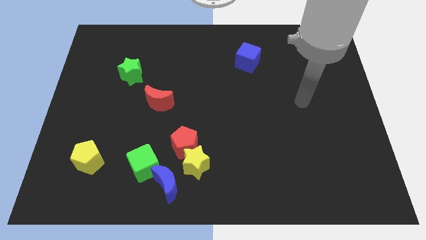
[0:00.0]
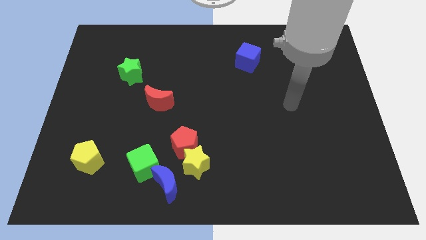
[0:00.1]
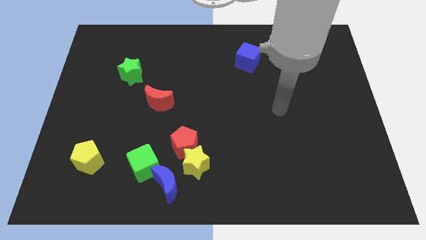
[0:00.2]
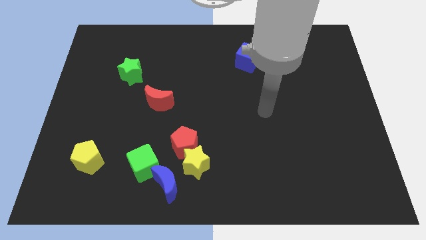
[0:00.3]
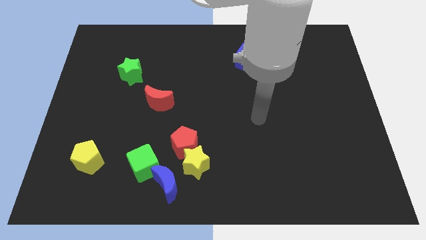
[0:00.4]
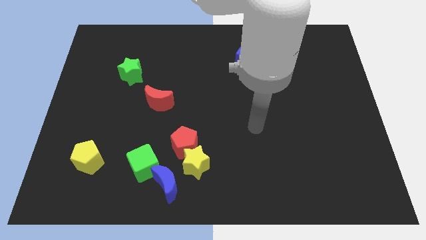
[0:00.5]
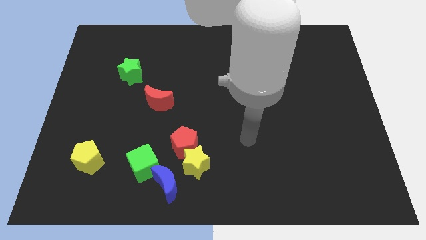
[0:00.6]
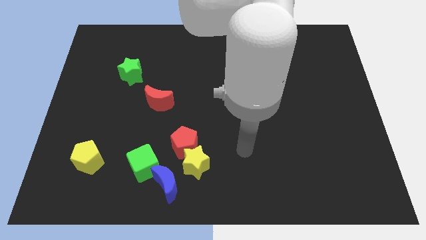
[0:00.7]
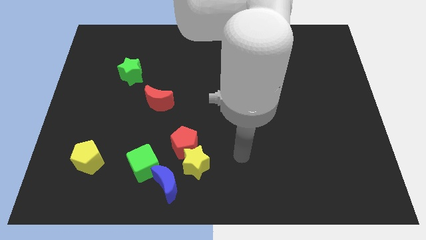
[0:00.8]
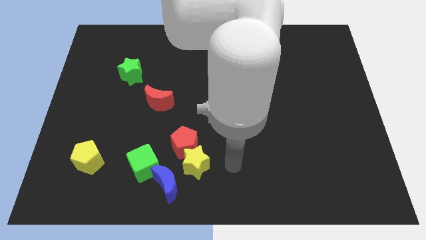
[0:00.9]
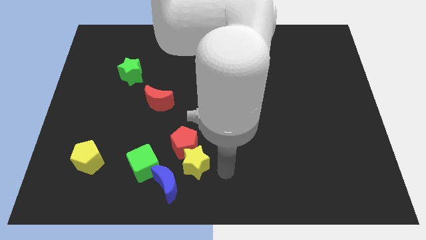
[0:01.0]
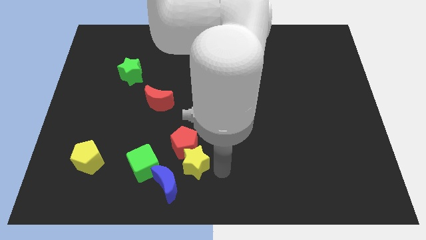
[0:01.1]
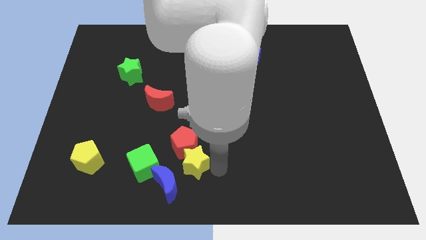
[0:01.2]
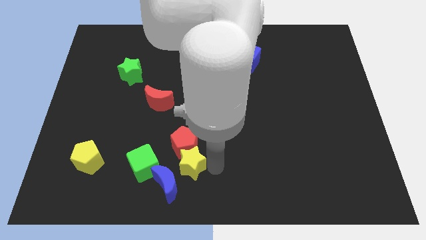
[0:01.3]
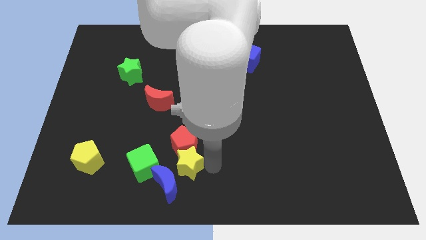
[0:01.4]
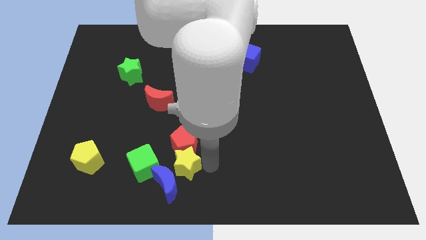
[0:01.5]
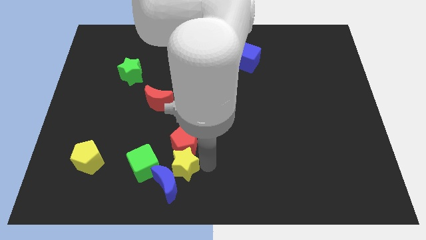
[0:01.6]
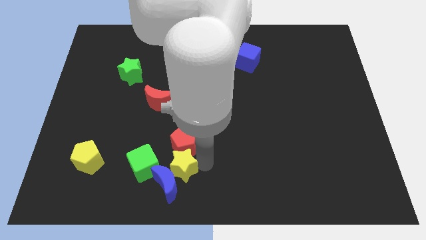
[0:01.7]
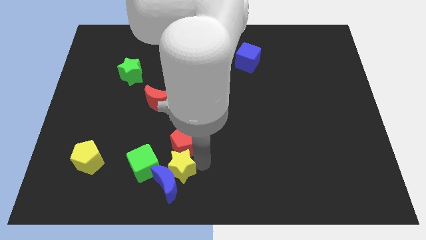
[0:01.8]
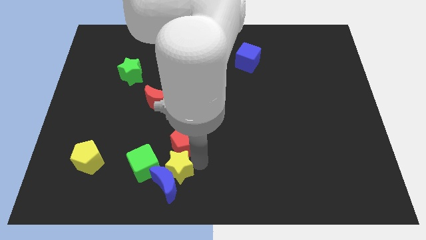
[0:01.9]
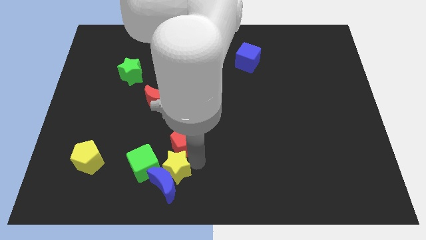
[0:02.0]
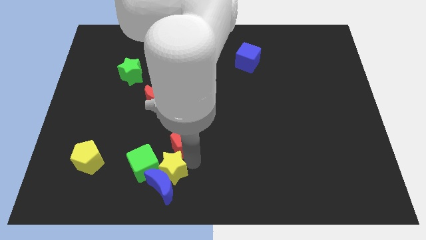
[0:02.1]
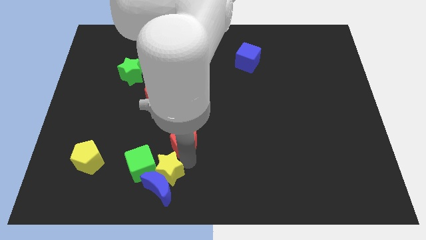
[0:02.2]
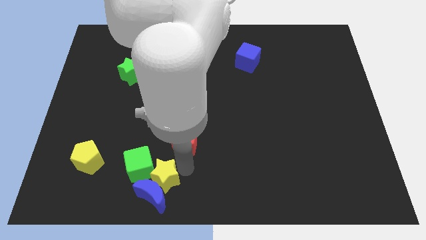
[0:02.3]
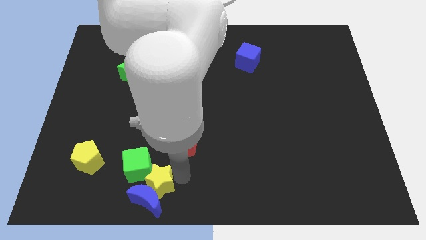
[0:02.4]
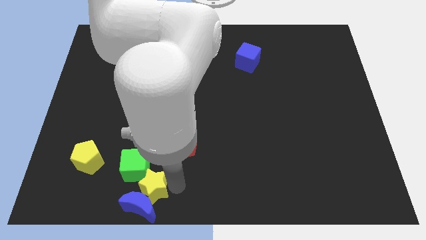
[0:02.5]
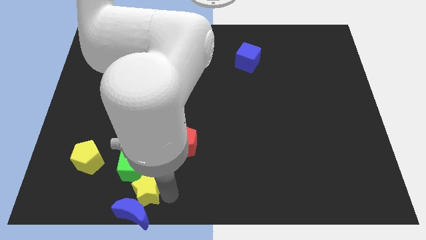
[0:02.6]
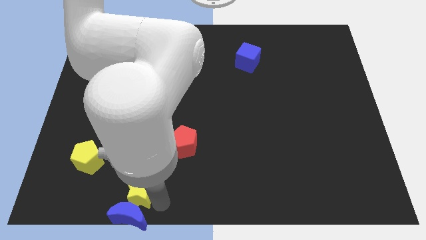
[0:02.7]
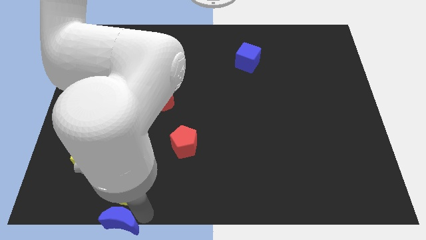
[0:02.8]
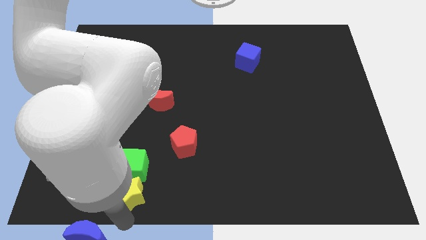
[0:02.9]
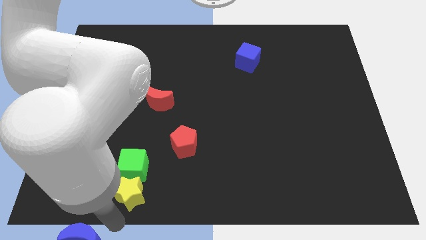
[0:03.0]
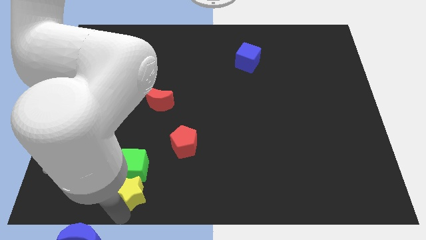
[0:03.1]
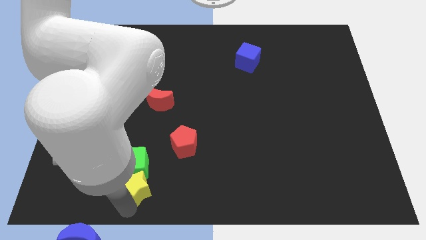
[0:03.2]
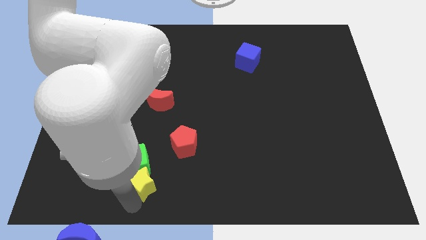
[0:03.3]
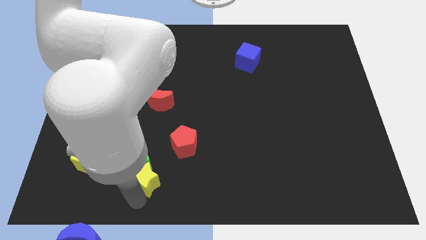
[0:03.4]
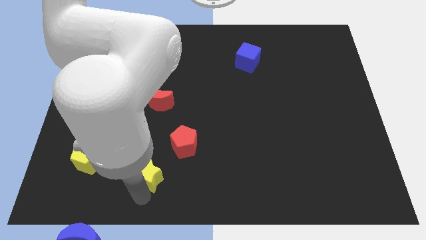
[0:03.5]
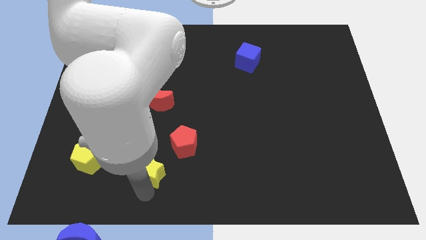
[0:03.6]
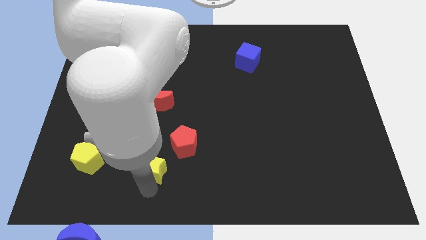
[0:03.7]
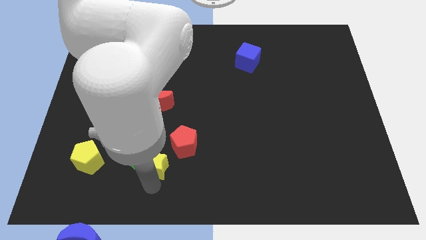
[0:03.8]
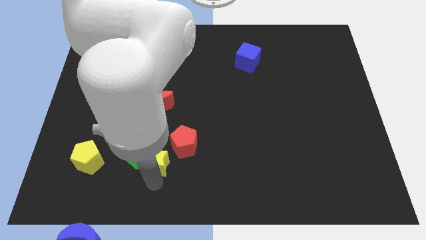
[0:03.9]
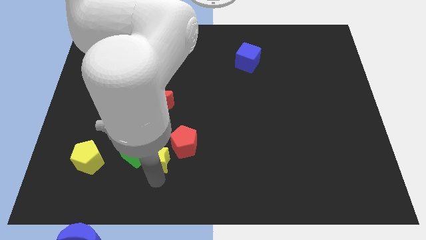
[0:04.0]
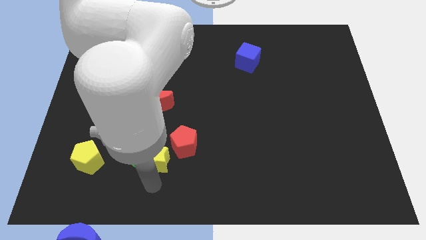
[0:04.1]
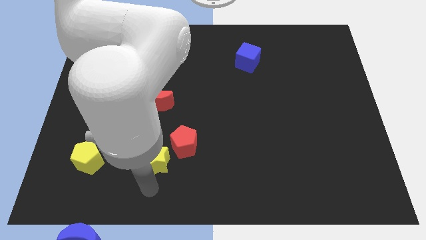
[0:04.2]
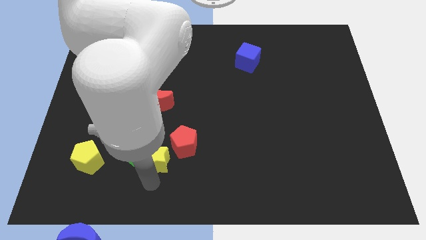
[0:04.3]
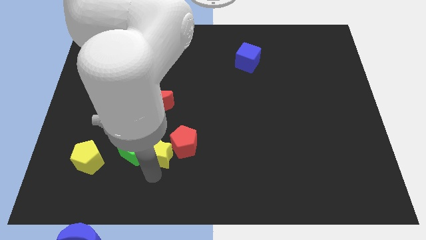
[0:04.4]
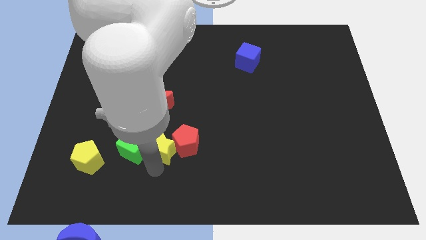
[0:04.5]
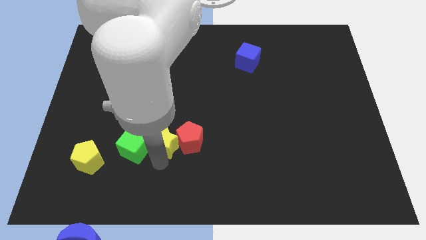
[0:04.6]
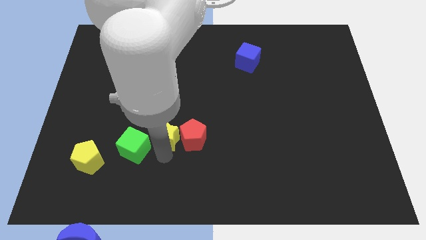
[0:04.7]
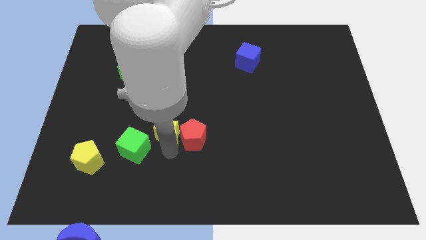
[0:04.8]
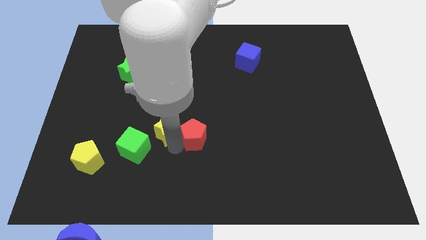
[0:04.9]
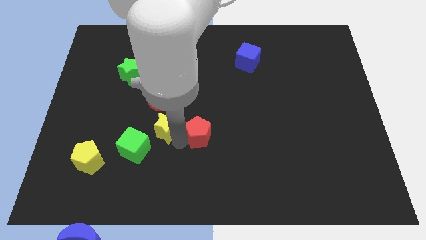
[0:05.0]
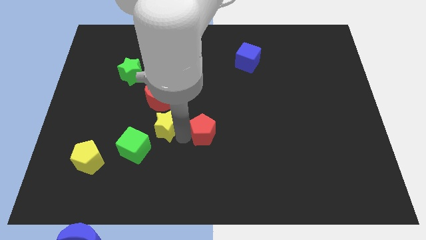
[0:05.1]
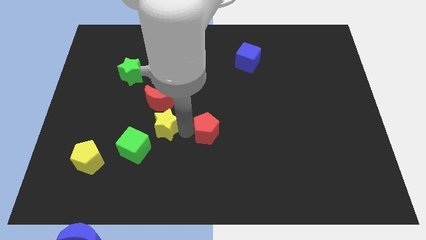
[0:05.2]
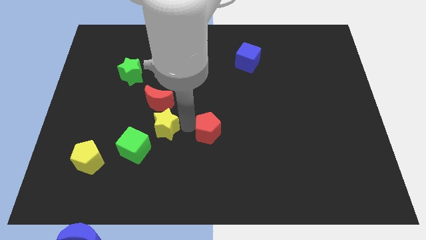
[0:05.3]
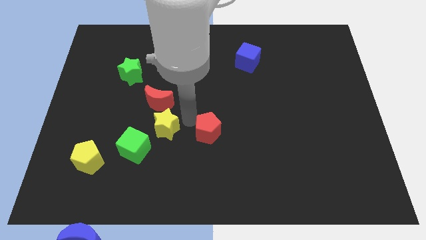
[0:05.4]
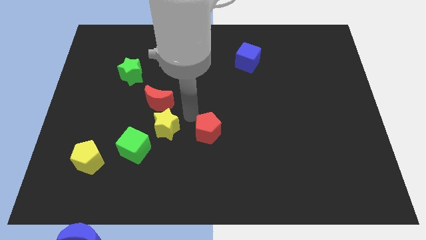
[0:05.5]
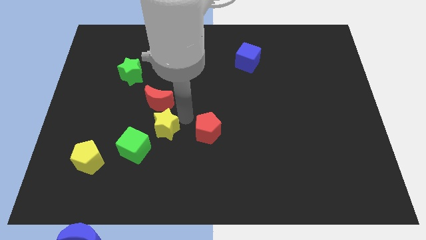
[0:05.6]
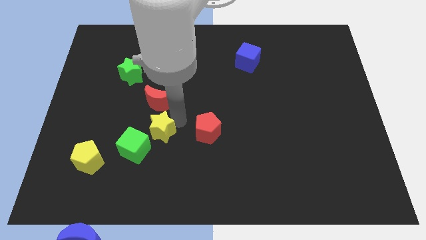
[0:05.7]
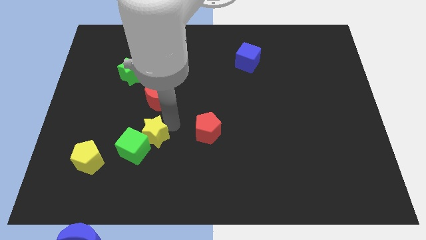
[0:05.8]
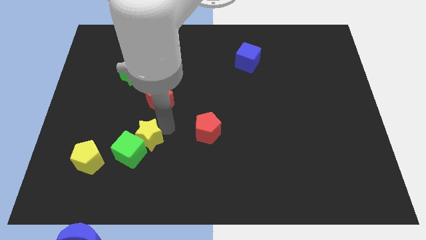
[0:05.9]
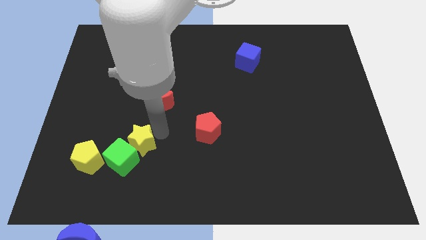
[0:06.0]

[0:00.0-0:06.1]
slide the yellow star to the top right of the yellow pentagon

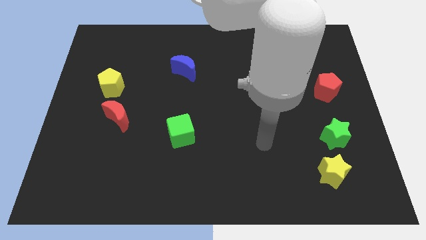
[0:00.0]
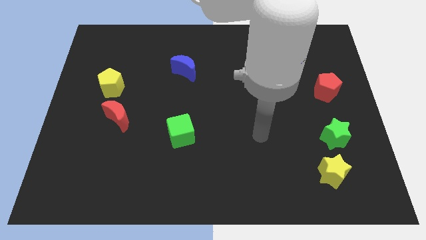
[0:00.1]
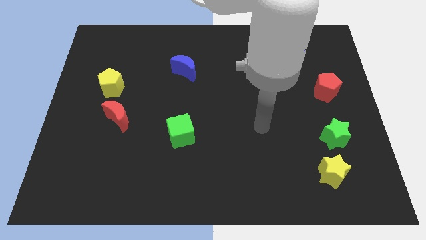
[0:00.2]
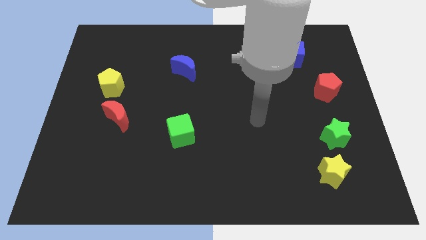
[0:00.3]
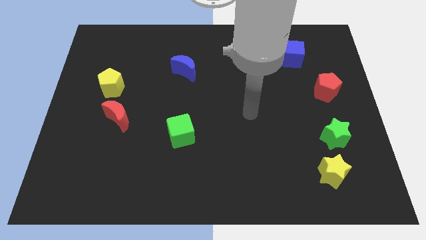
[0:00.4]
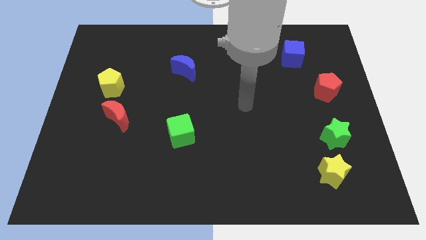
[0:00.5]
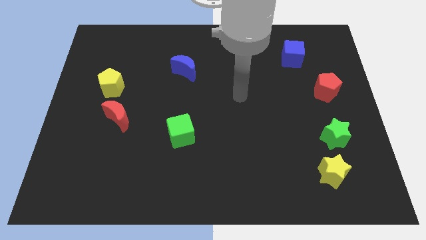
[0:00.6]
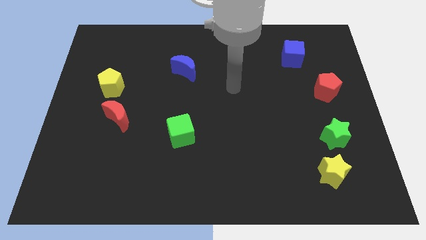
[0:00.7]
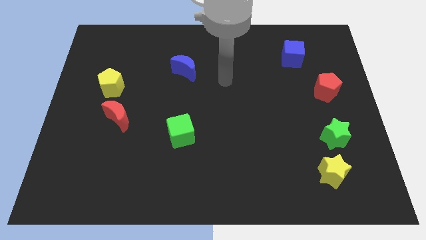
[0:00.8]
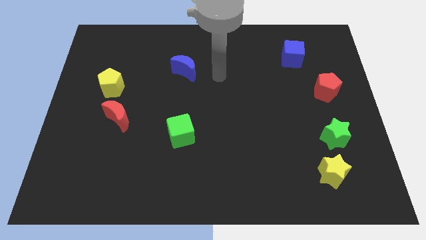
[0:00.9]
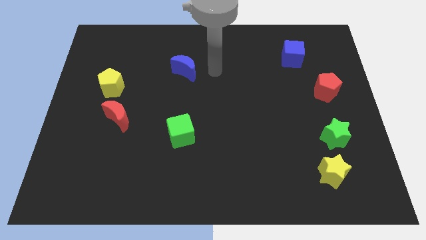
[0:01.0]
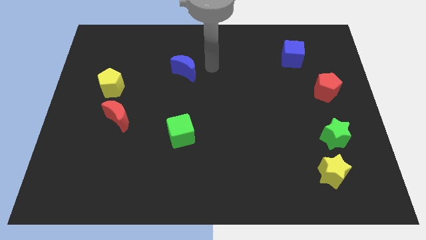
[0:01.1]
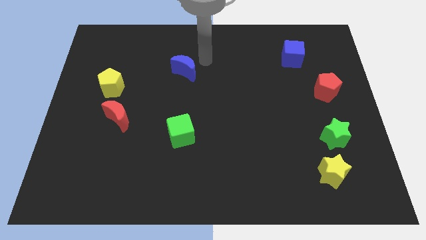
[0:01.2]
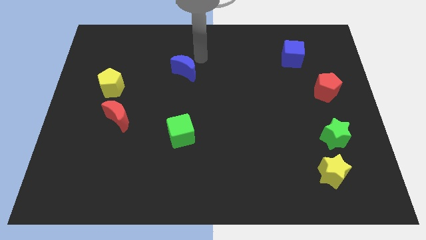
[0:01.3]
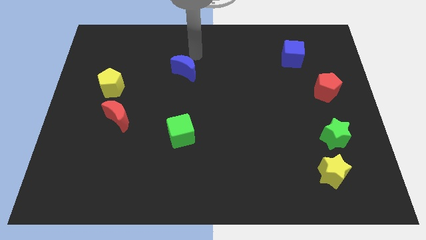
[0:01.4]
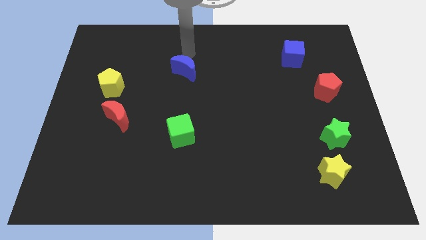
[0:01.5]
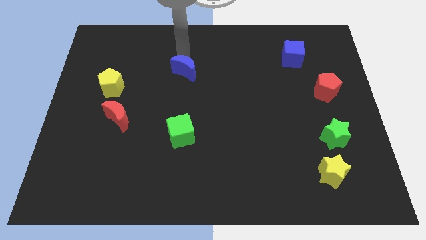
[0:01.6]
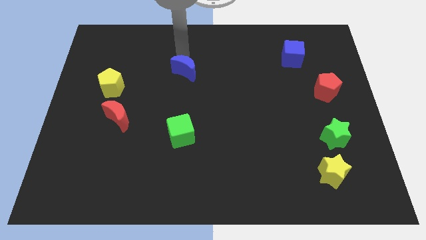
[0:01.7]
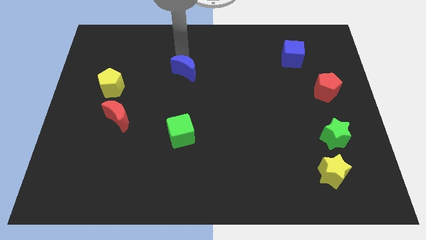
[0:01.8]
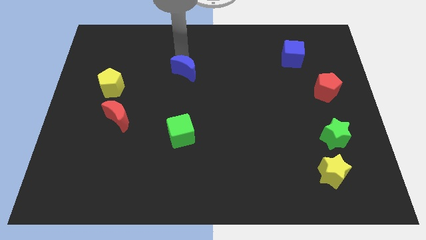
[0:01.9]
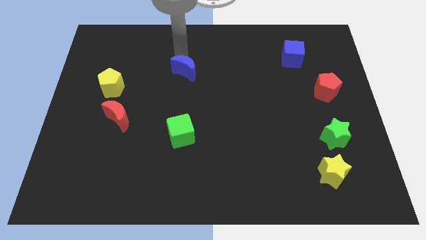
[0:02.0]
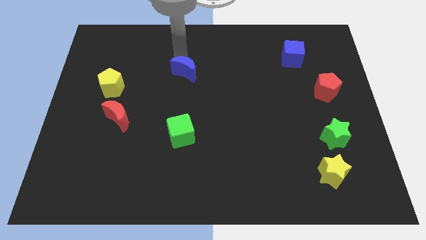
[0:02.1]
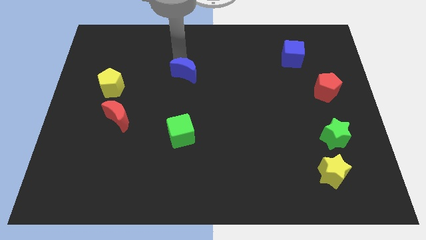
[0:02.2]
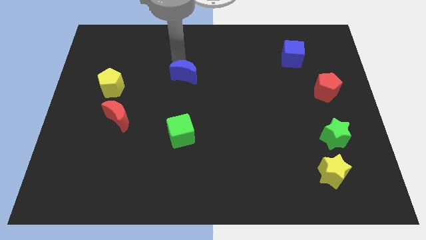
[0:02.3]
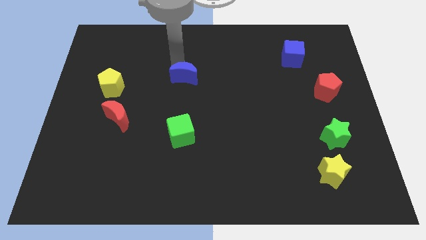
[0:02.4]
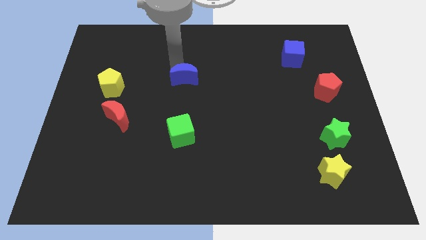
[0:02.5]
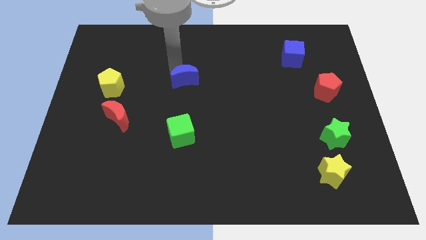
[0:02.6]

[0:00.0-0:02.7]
push the blue moon to the top side of the green cube
